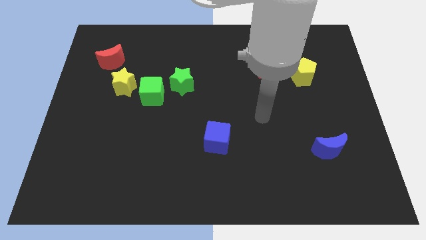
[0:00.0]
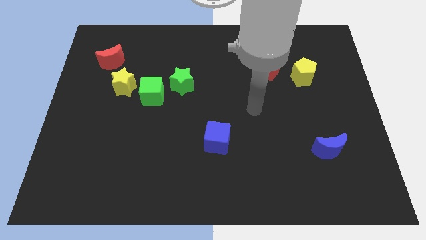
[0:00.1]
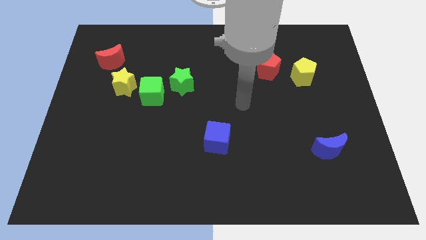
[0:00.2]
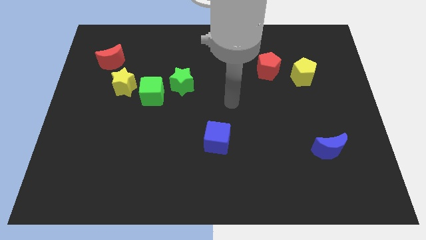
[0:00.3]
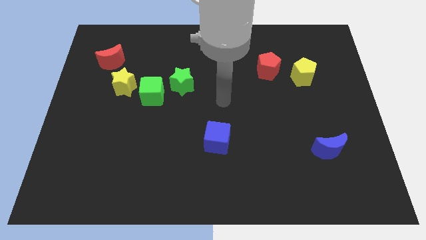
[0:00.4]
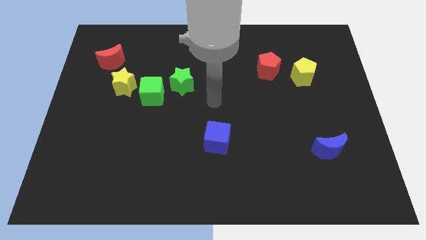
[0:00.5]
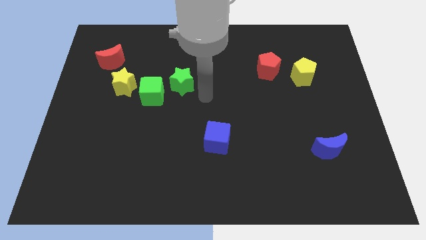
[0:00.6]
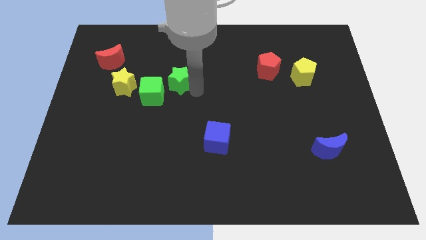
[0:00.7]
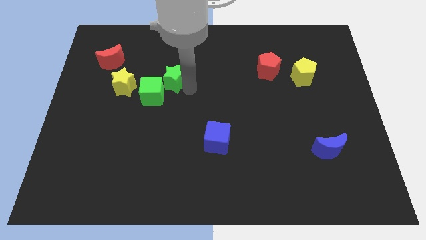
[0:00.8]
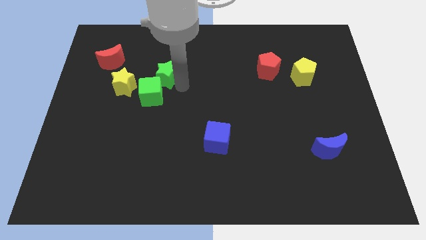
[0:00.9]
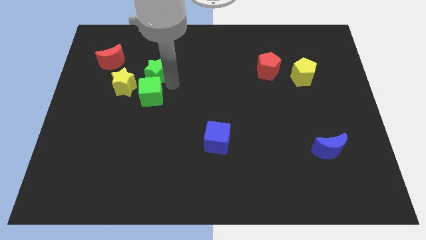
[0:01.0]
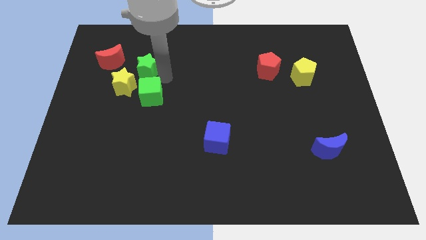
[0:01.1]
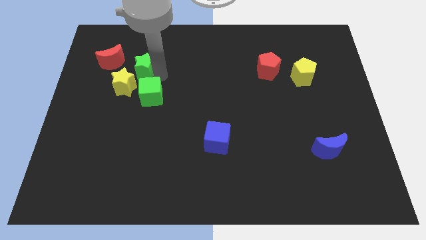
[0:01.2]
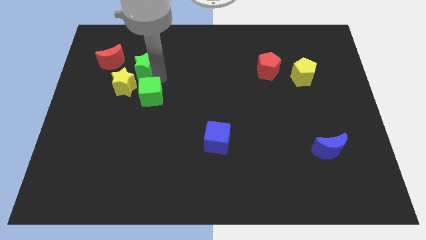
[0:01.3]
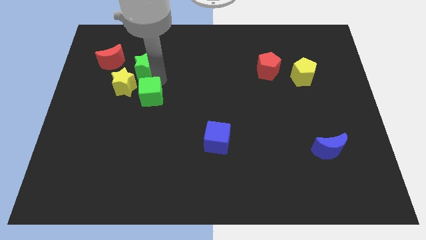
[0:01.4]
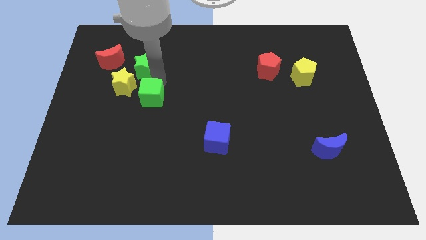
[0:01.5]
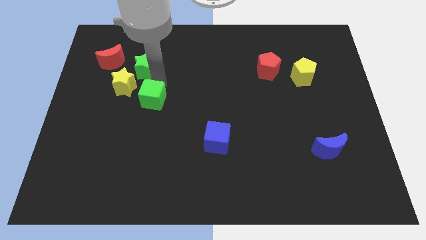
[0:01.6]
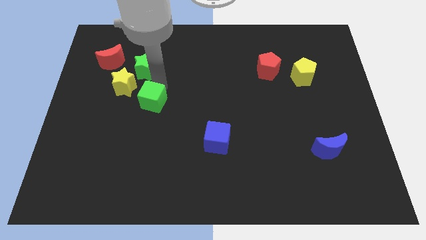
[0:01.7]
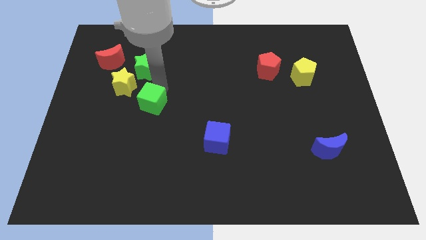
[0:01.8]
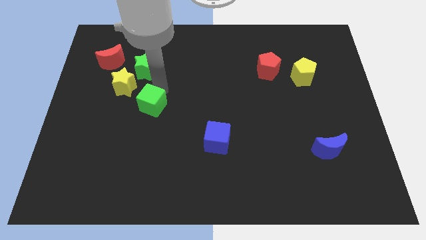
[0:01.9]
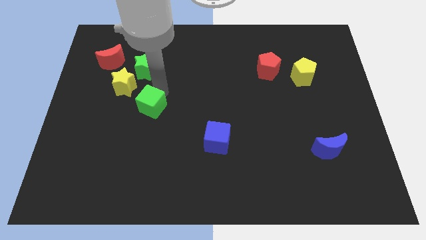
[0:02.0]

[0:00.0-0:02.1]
pull the green cube apart from the yellow star and green star

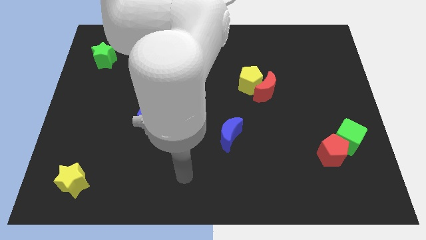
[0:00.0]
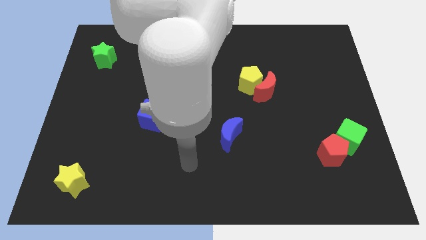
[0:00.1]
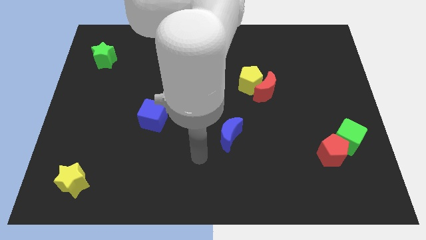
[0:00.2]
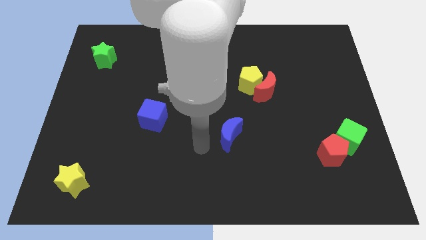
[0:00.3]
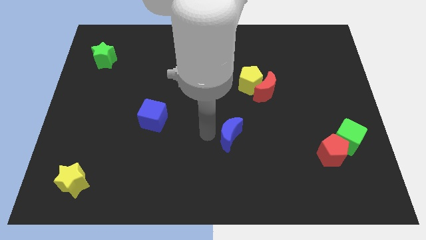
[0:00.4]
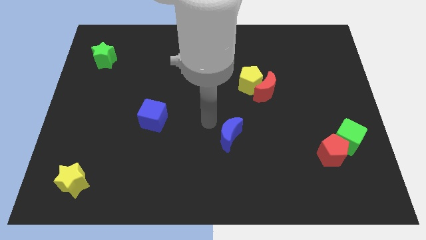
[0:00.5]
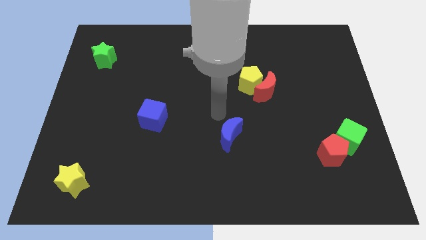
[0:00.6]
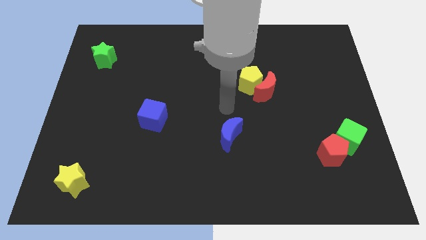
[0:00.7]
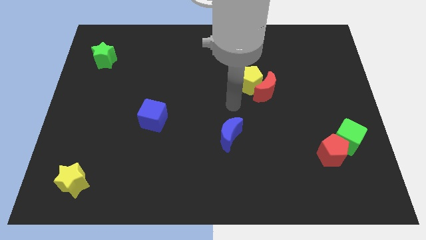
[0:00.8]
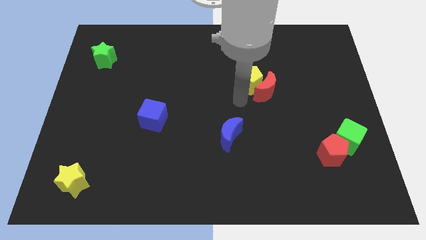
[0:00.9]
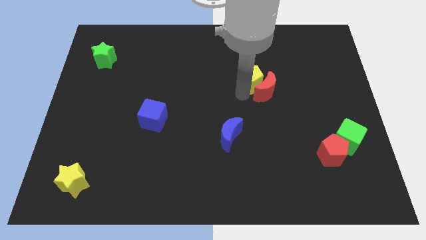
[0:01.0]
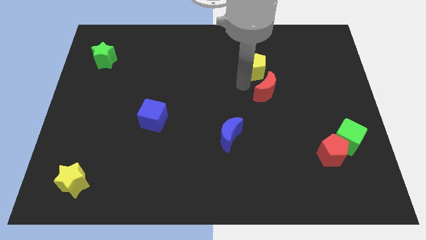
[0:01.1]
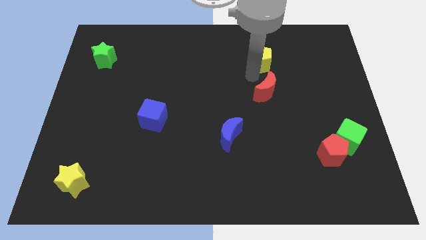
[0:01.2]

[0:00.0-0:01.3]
move the red moon away from the yellow pentagon

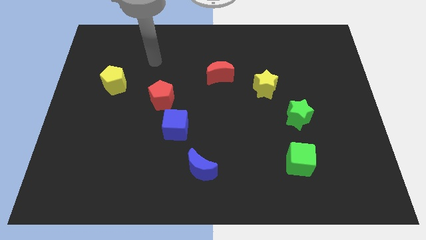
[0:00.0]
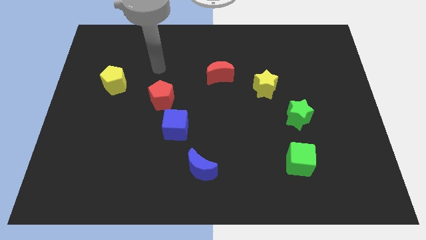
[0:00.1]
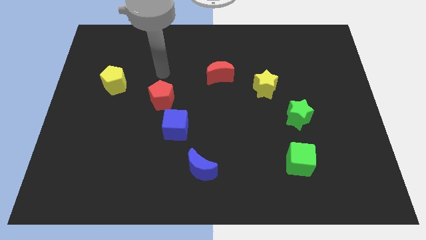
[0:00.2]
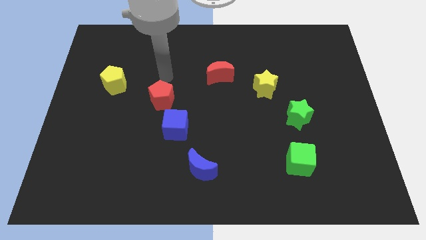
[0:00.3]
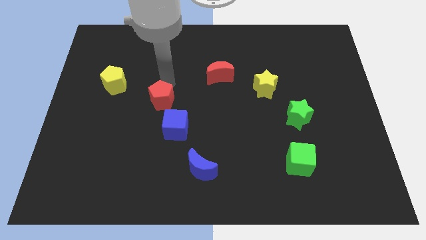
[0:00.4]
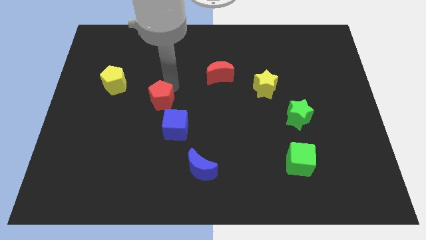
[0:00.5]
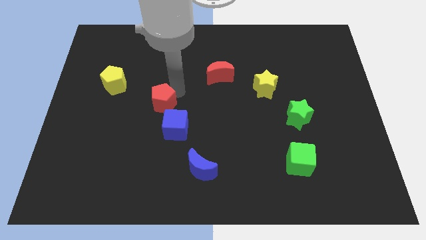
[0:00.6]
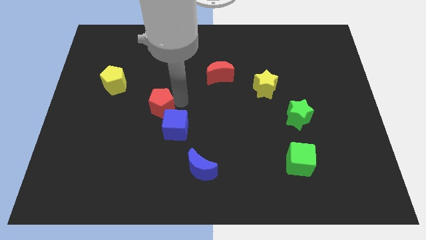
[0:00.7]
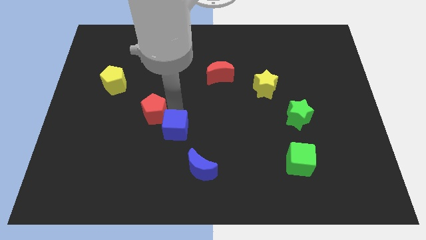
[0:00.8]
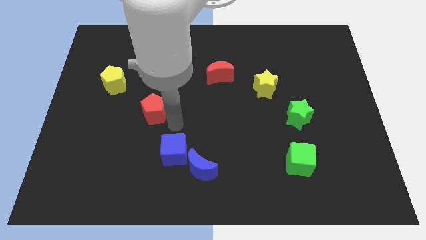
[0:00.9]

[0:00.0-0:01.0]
move the red pentagon away from the blue cube

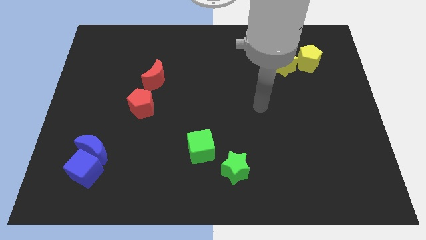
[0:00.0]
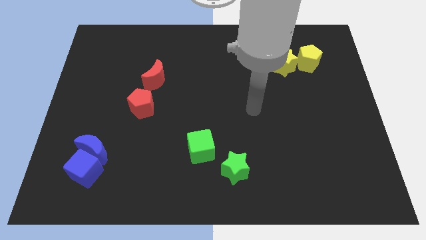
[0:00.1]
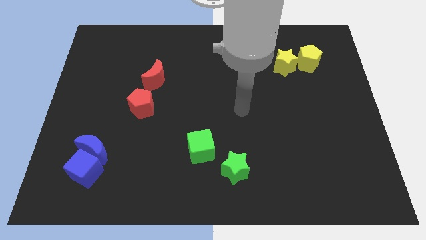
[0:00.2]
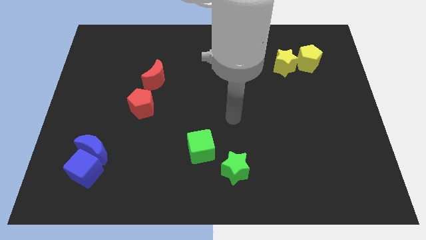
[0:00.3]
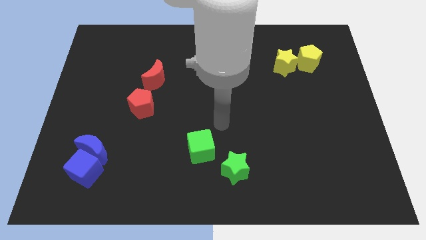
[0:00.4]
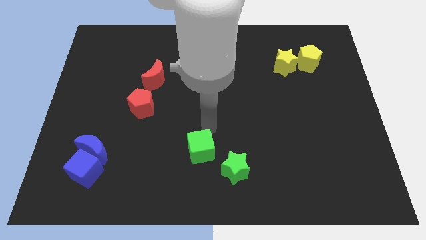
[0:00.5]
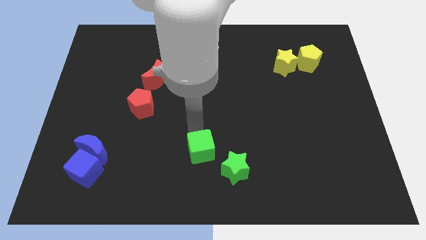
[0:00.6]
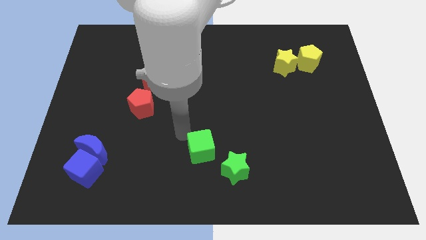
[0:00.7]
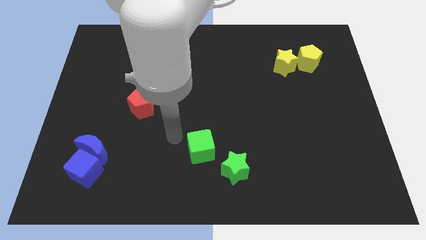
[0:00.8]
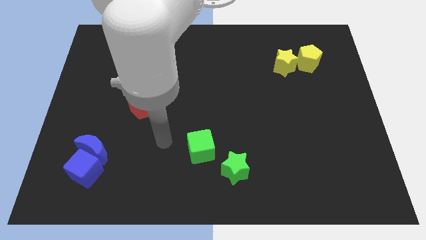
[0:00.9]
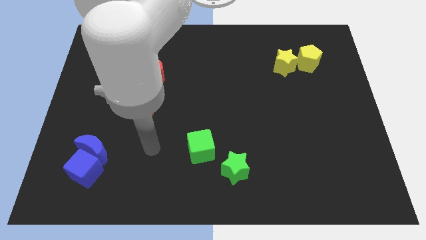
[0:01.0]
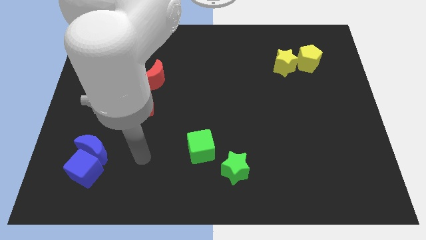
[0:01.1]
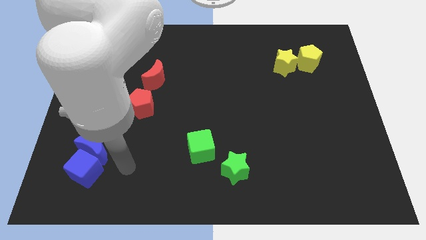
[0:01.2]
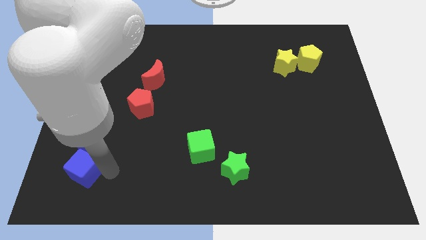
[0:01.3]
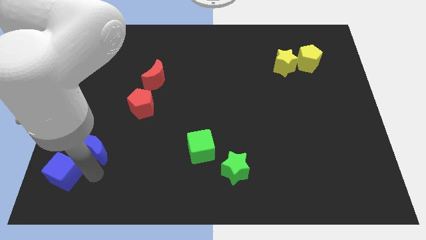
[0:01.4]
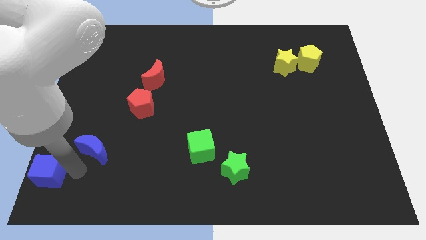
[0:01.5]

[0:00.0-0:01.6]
separate the blue moon from the blue cube

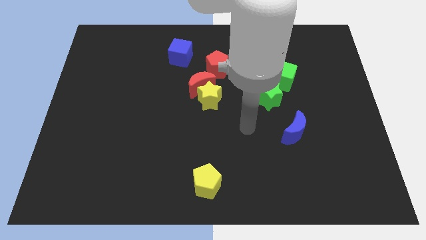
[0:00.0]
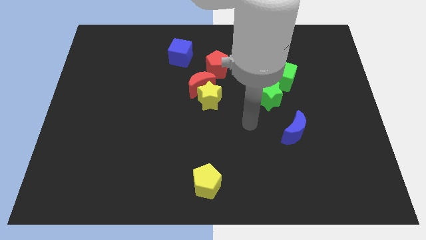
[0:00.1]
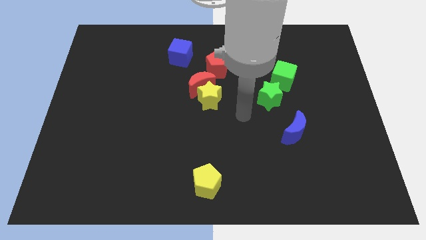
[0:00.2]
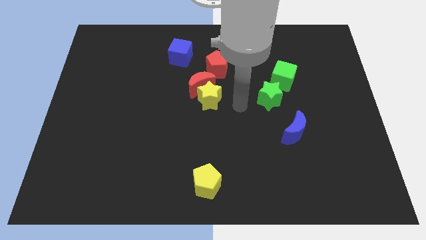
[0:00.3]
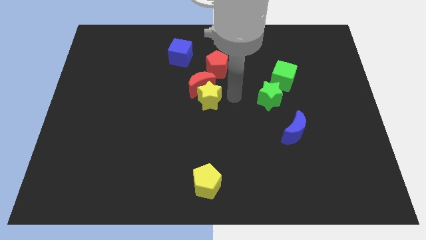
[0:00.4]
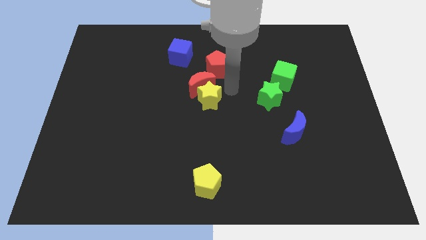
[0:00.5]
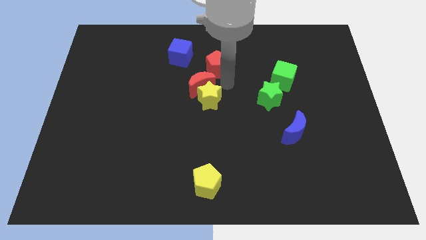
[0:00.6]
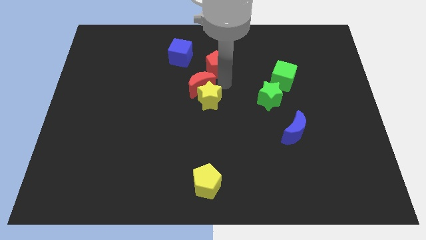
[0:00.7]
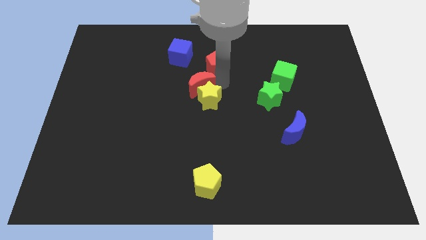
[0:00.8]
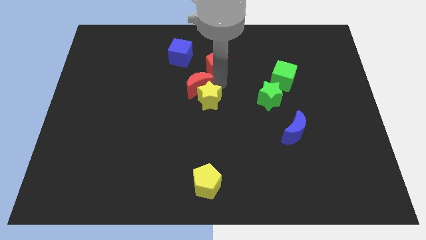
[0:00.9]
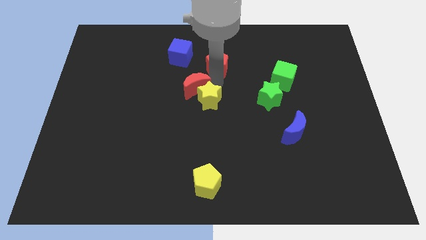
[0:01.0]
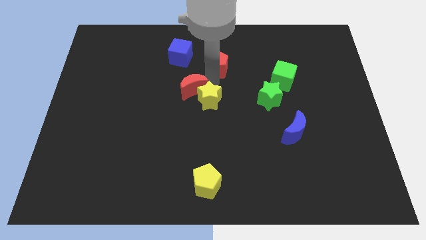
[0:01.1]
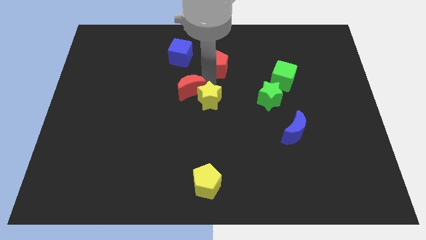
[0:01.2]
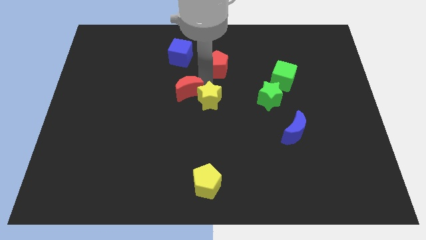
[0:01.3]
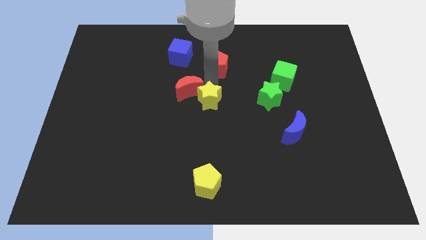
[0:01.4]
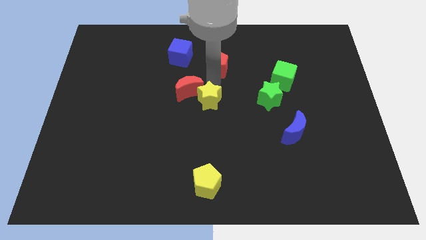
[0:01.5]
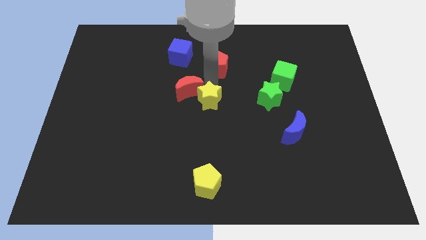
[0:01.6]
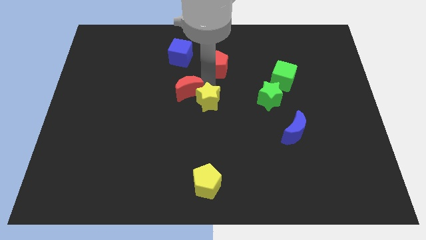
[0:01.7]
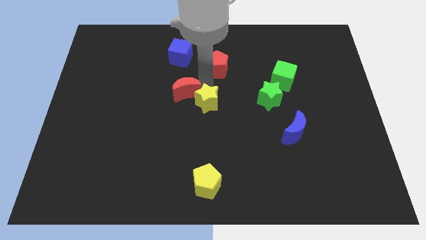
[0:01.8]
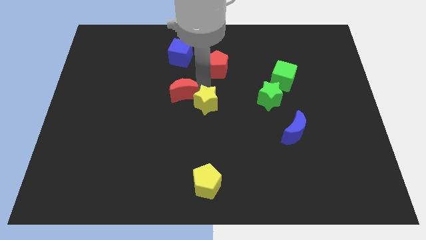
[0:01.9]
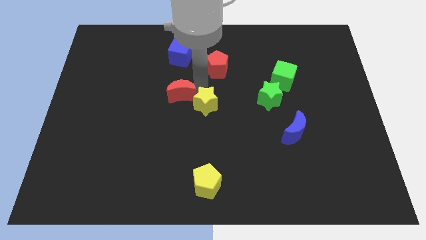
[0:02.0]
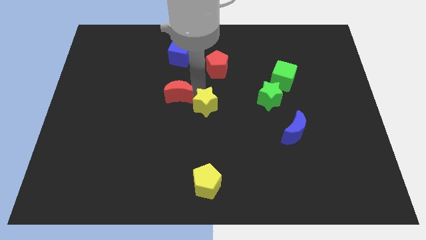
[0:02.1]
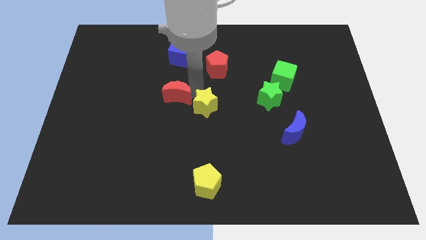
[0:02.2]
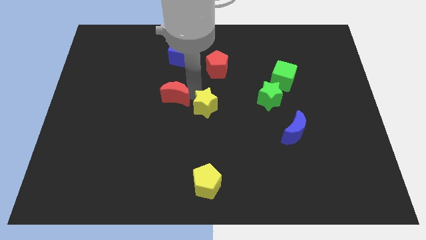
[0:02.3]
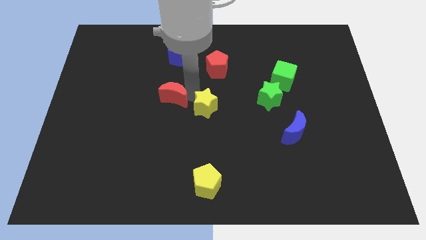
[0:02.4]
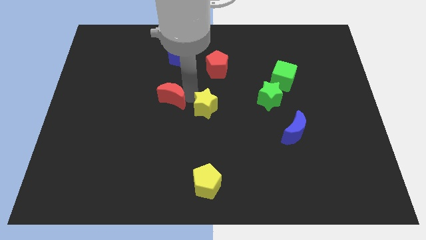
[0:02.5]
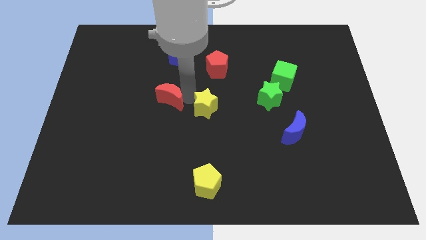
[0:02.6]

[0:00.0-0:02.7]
pull the red moon apart from the yellow star and red pentagon

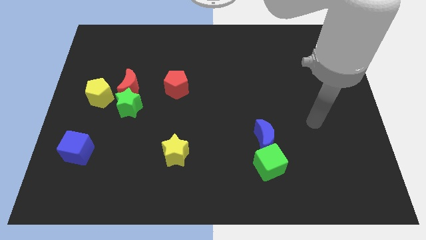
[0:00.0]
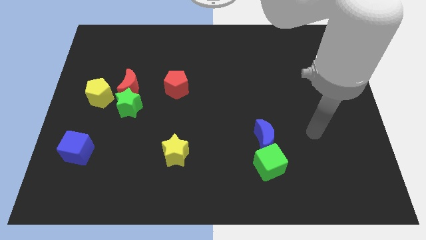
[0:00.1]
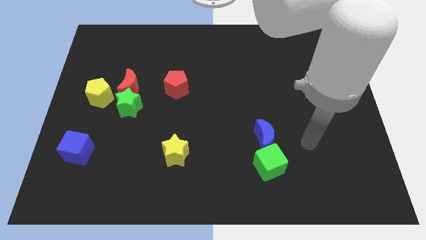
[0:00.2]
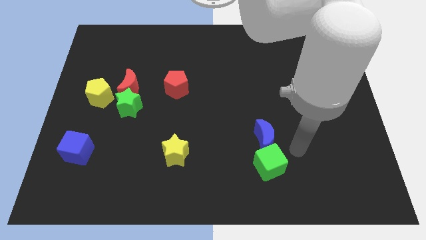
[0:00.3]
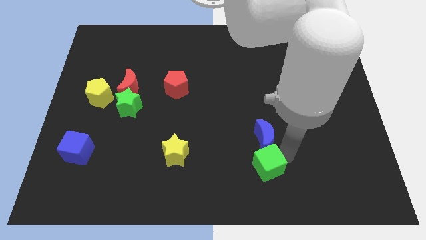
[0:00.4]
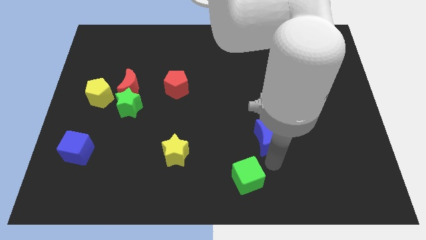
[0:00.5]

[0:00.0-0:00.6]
pull the blue moon apart from the green cube
